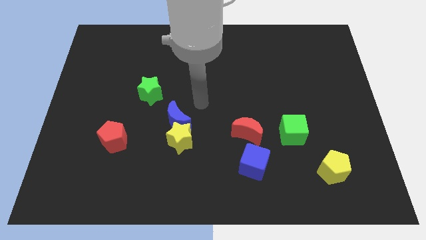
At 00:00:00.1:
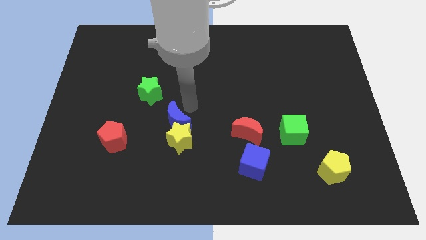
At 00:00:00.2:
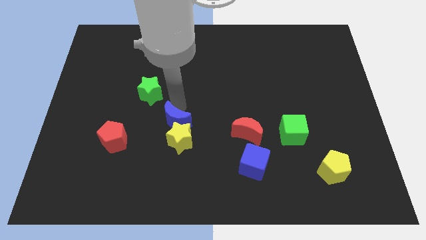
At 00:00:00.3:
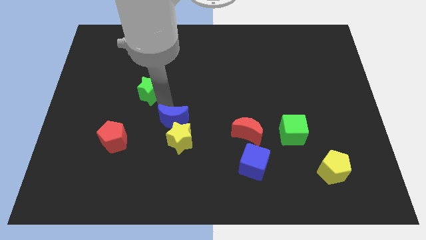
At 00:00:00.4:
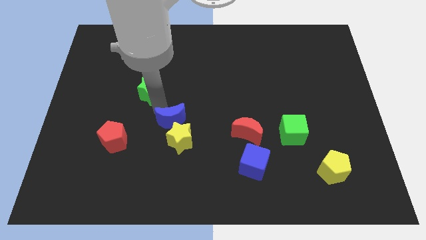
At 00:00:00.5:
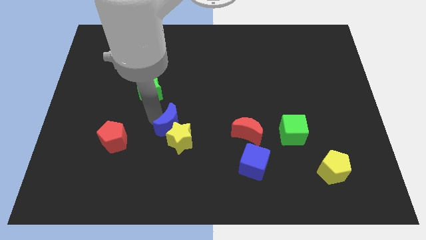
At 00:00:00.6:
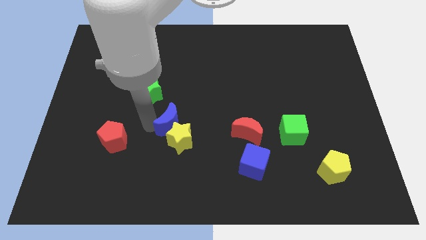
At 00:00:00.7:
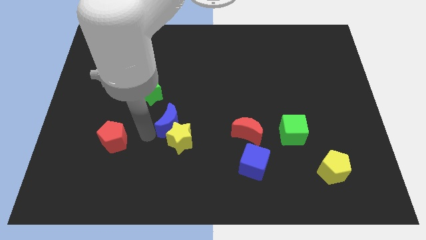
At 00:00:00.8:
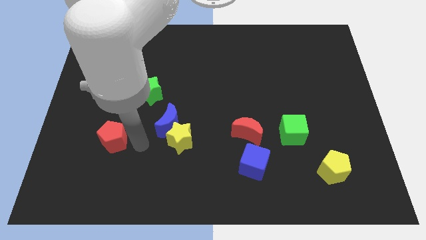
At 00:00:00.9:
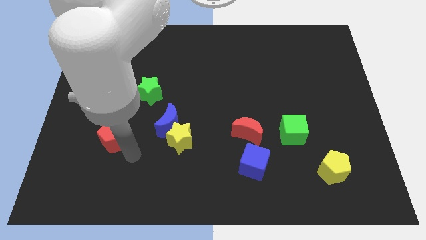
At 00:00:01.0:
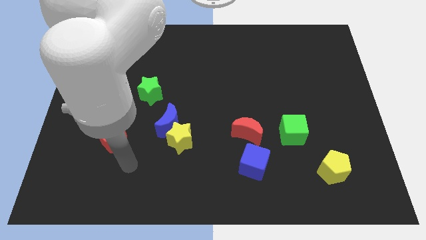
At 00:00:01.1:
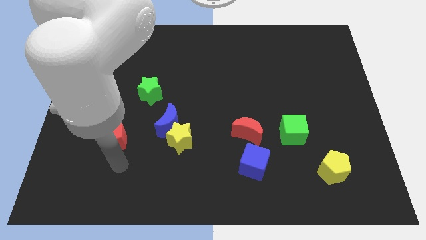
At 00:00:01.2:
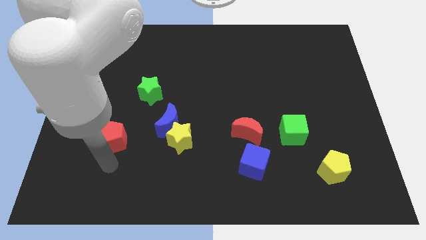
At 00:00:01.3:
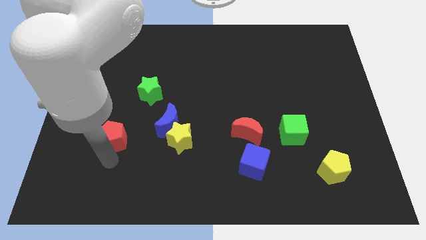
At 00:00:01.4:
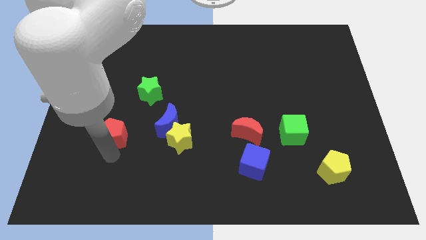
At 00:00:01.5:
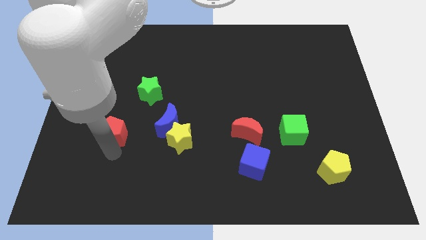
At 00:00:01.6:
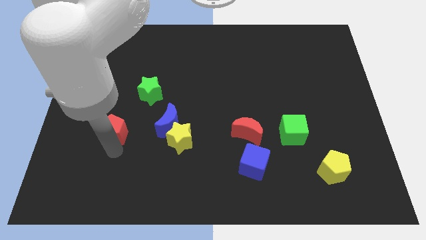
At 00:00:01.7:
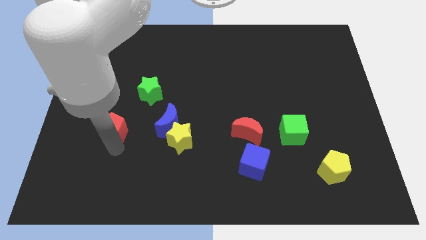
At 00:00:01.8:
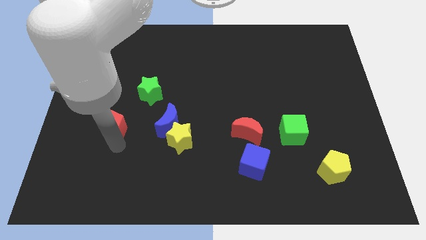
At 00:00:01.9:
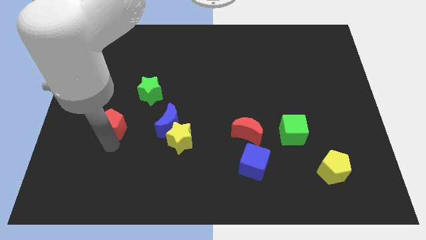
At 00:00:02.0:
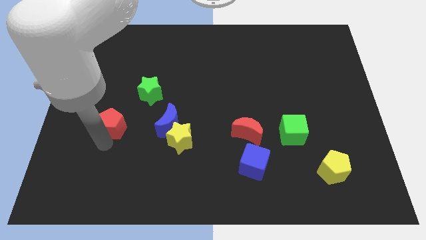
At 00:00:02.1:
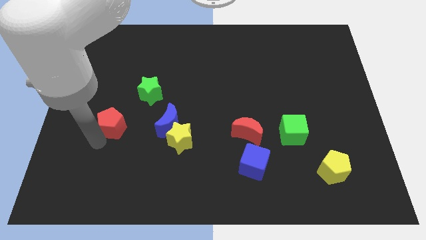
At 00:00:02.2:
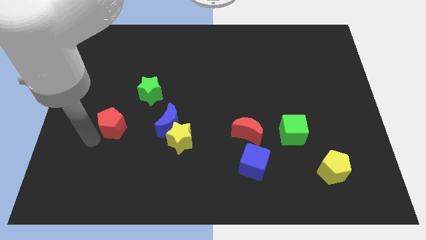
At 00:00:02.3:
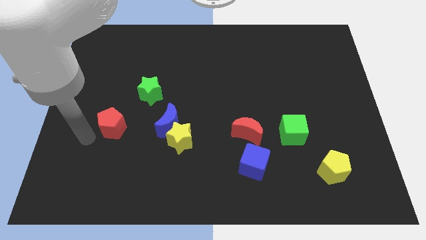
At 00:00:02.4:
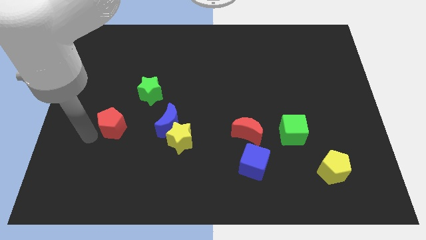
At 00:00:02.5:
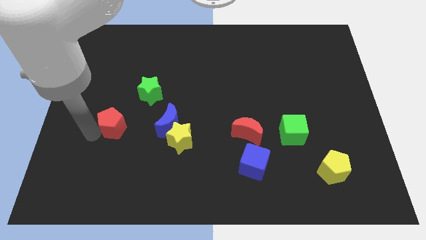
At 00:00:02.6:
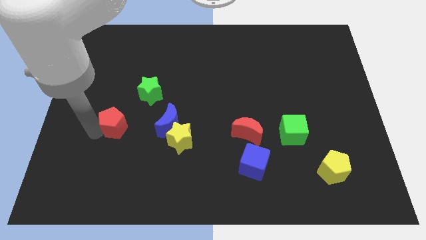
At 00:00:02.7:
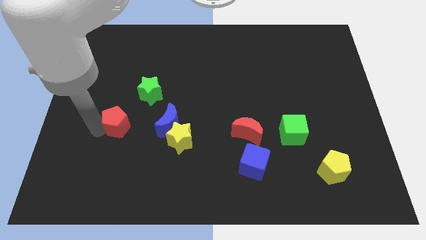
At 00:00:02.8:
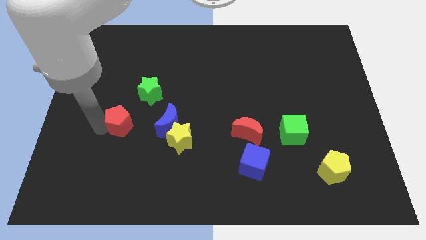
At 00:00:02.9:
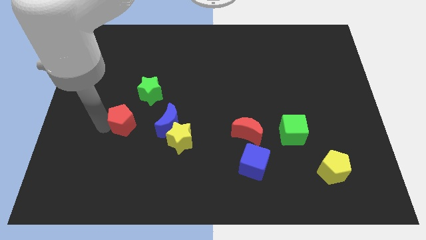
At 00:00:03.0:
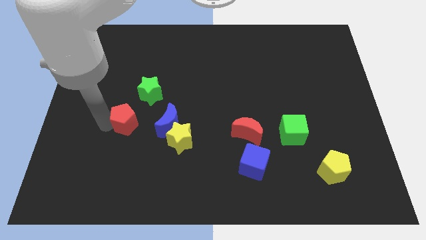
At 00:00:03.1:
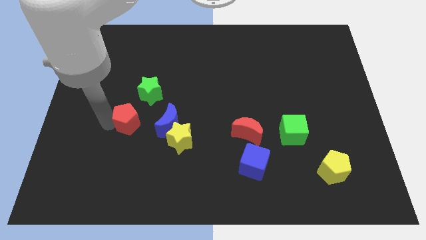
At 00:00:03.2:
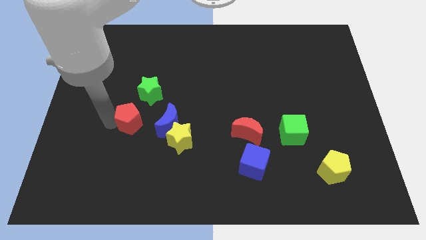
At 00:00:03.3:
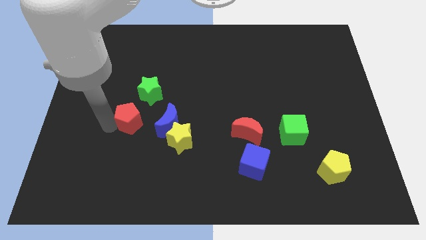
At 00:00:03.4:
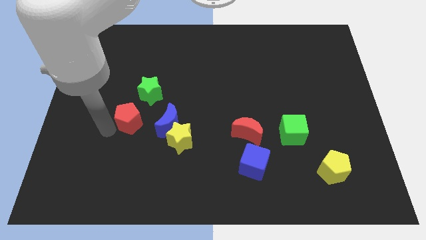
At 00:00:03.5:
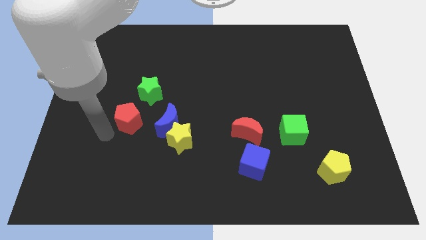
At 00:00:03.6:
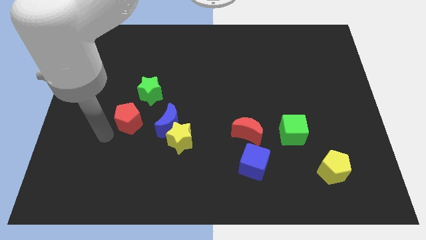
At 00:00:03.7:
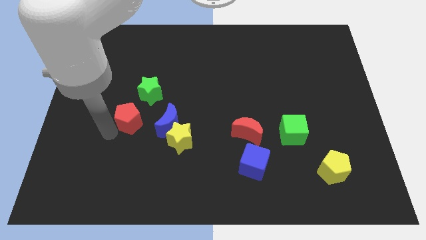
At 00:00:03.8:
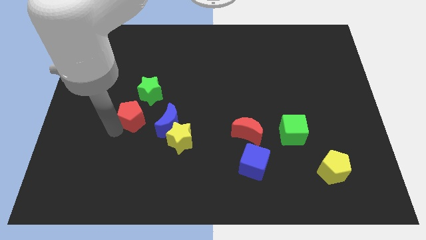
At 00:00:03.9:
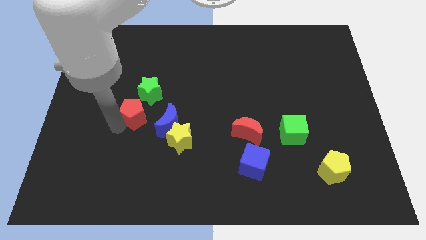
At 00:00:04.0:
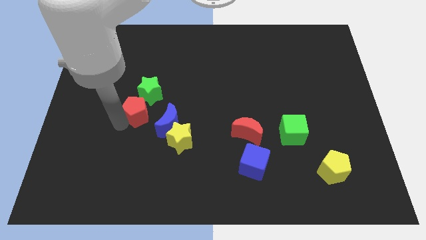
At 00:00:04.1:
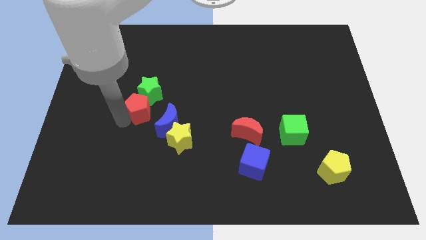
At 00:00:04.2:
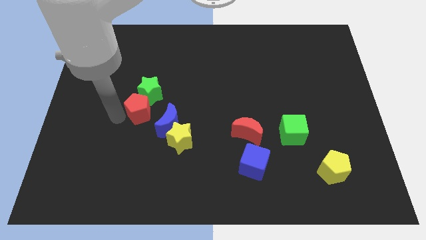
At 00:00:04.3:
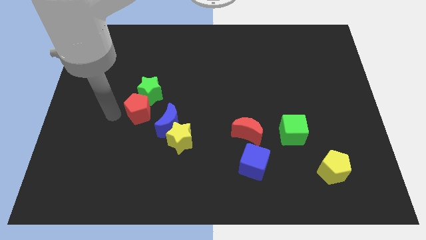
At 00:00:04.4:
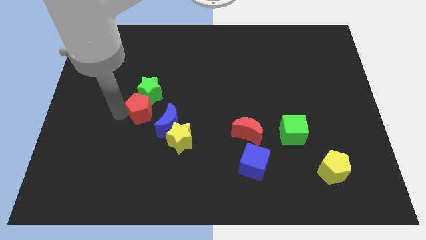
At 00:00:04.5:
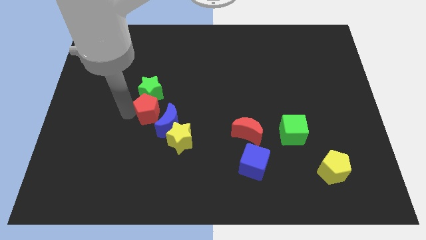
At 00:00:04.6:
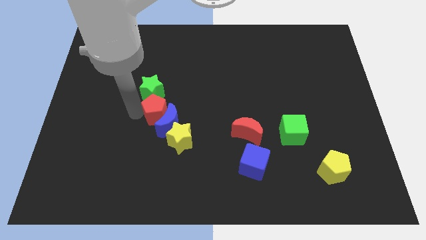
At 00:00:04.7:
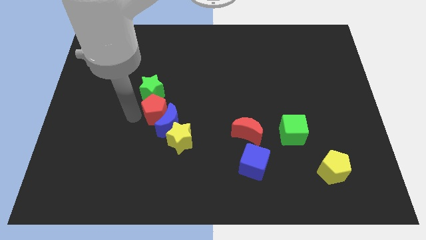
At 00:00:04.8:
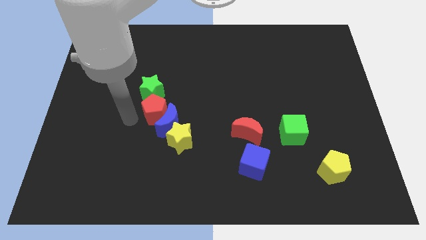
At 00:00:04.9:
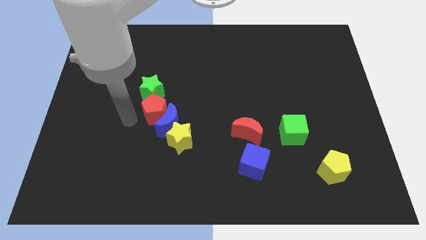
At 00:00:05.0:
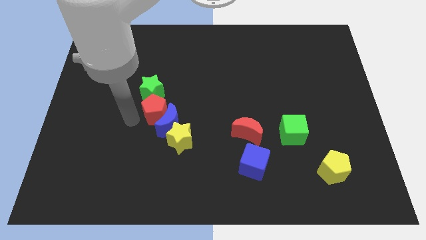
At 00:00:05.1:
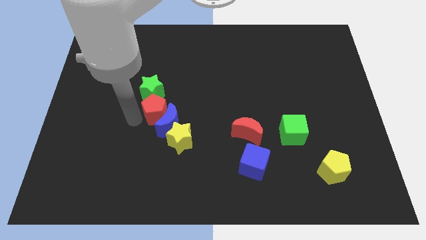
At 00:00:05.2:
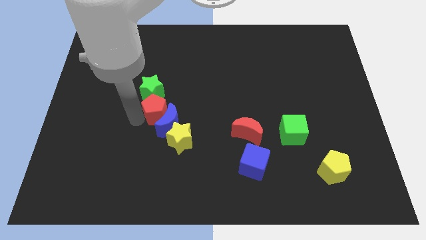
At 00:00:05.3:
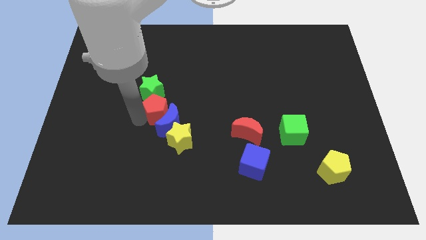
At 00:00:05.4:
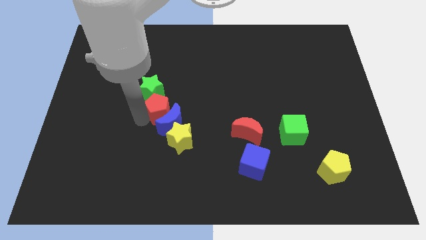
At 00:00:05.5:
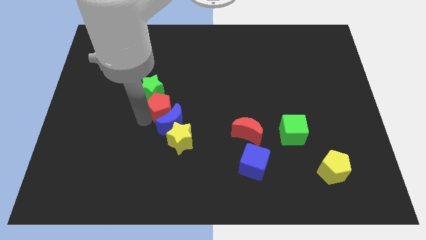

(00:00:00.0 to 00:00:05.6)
move the red pentagon to the center
